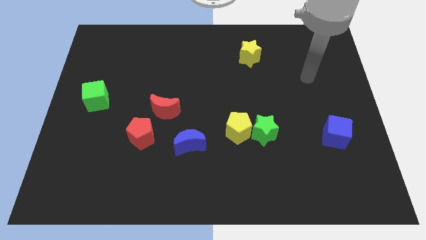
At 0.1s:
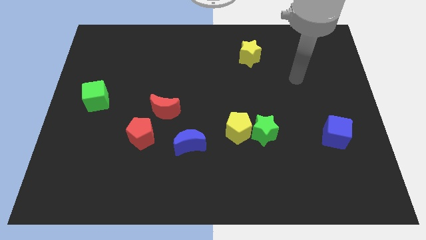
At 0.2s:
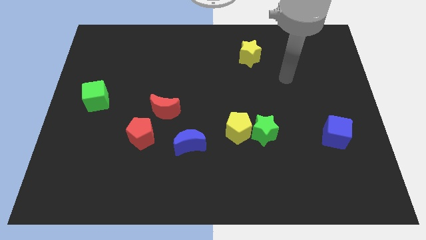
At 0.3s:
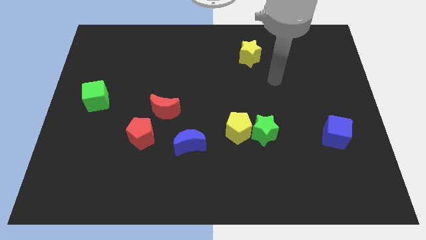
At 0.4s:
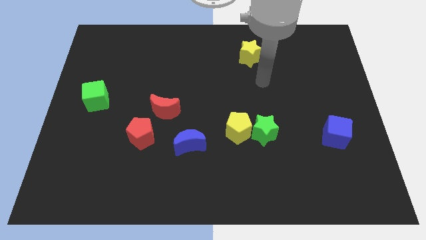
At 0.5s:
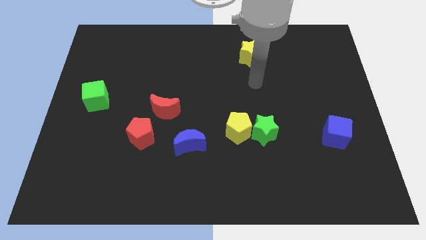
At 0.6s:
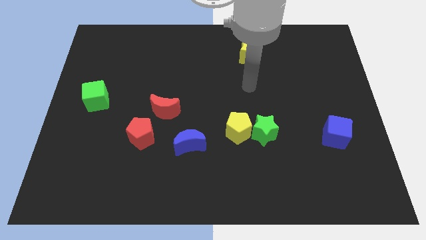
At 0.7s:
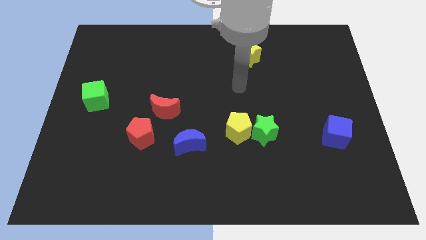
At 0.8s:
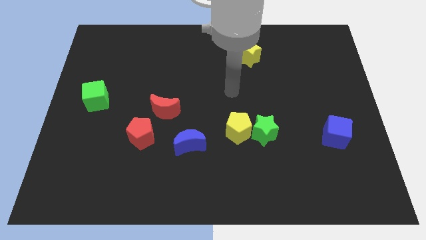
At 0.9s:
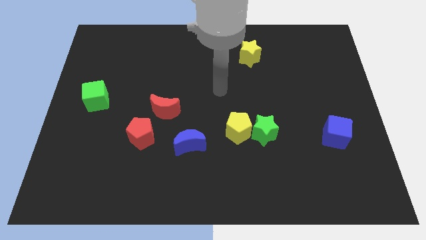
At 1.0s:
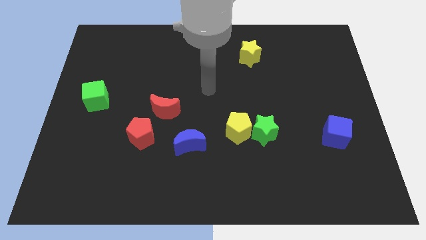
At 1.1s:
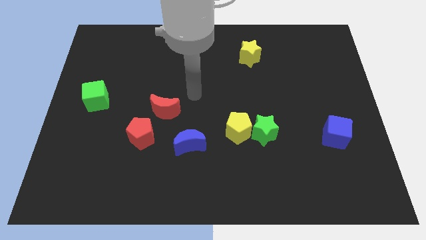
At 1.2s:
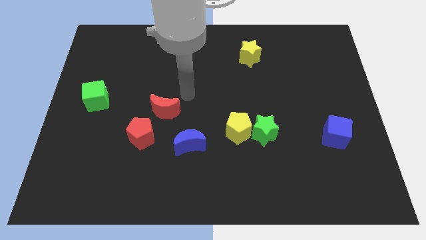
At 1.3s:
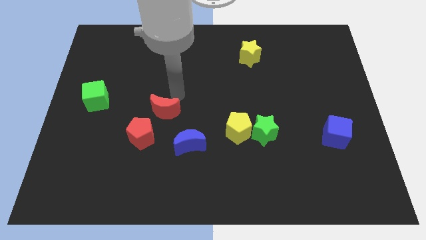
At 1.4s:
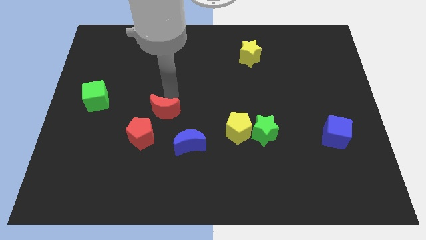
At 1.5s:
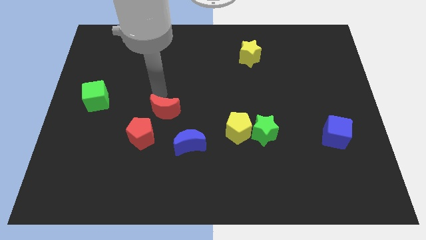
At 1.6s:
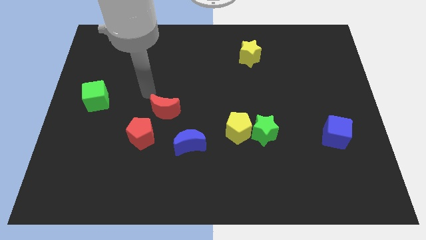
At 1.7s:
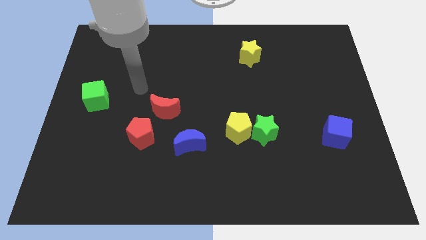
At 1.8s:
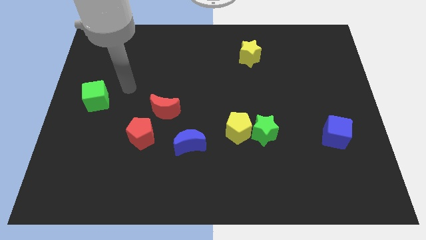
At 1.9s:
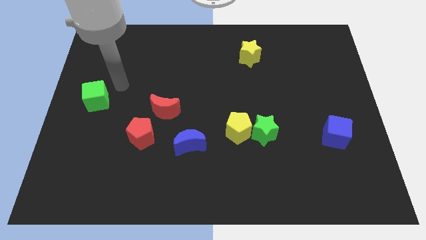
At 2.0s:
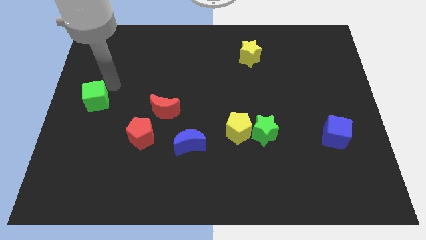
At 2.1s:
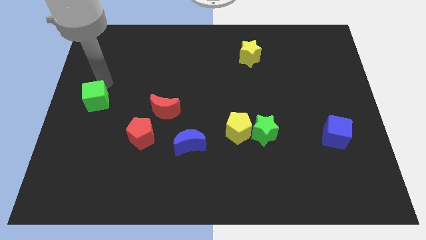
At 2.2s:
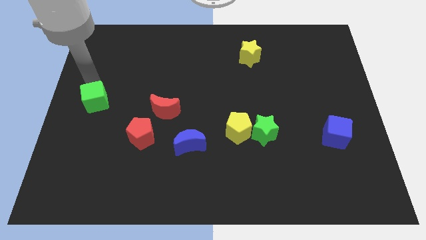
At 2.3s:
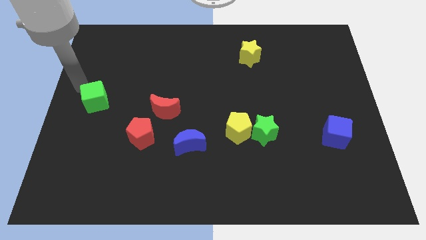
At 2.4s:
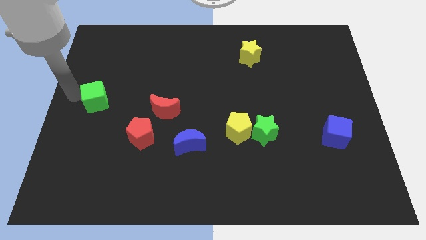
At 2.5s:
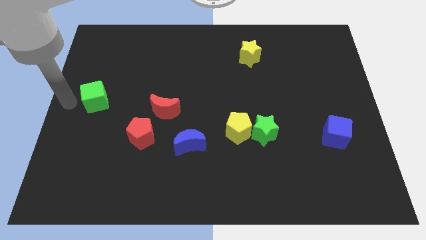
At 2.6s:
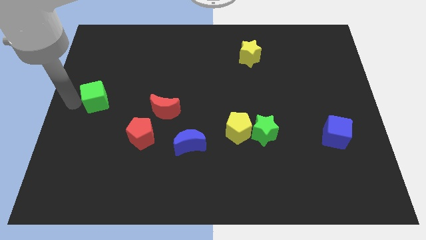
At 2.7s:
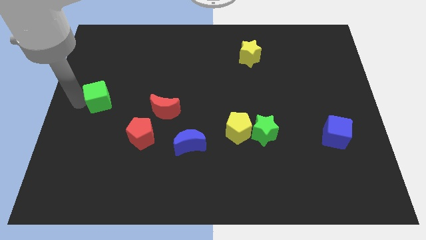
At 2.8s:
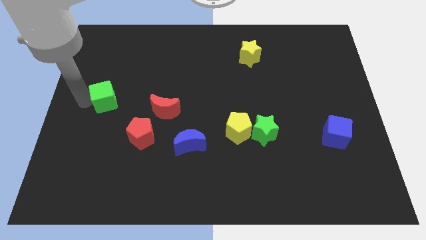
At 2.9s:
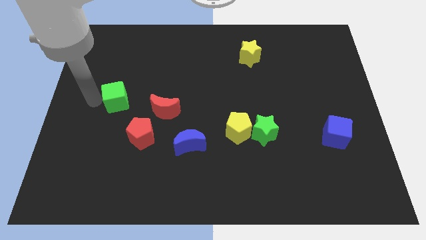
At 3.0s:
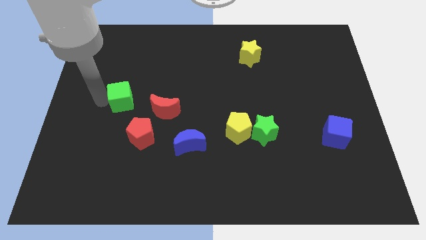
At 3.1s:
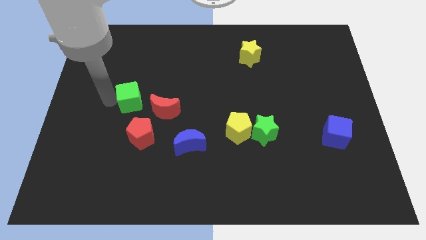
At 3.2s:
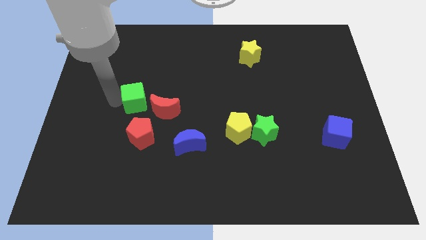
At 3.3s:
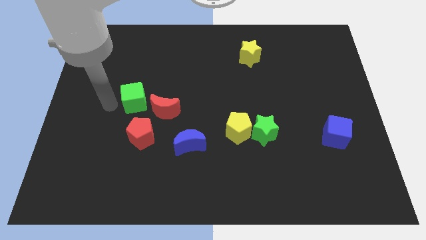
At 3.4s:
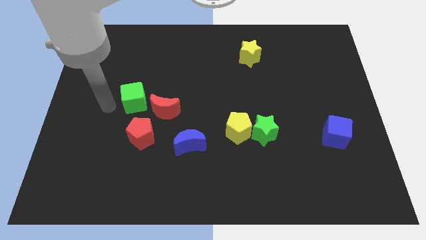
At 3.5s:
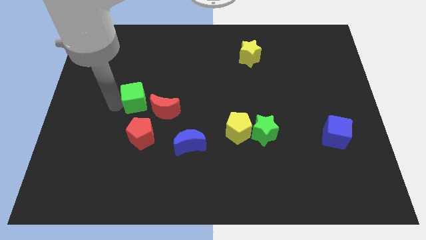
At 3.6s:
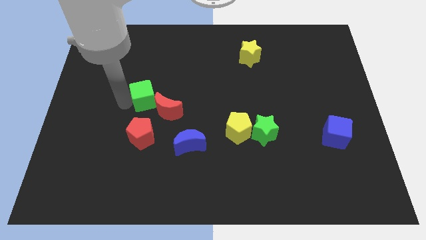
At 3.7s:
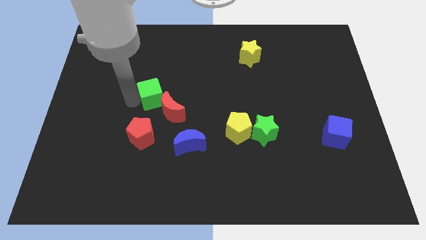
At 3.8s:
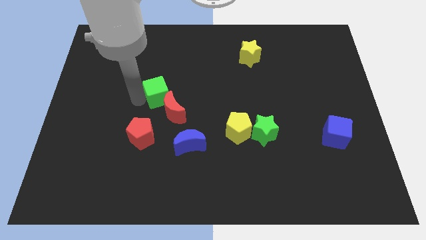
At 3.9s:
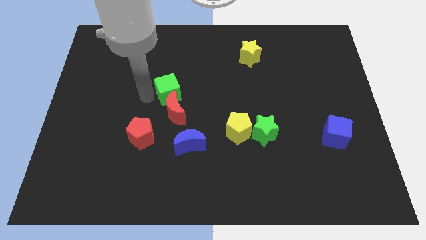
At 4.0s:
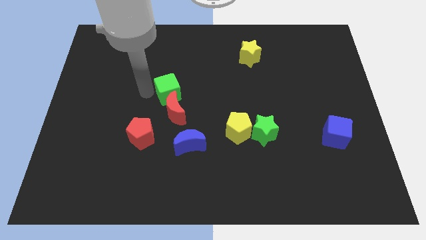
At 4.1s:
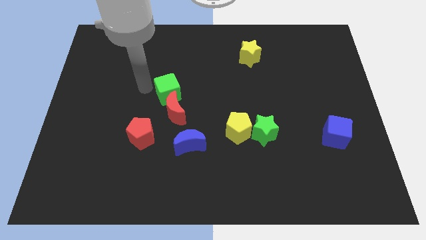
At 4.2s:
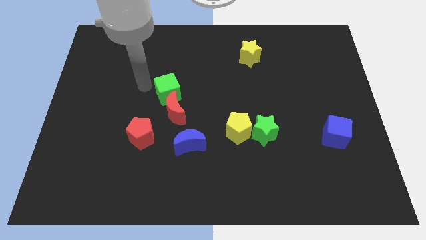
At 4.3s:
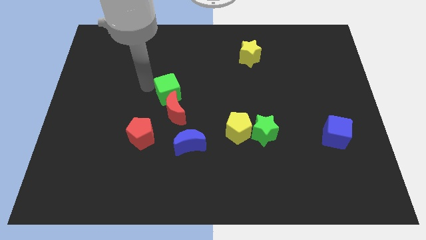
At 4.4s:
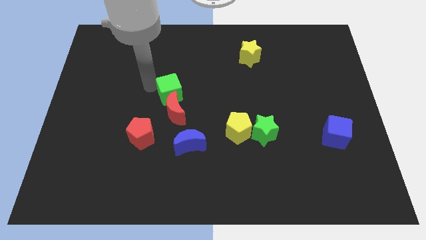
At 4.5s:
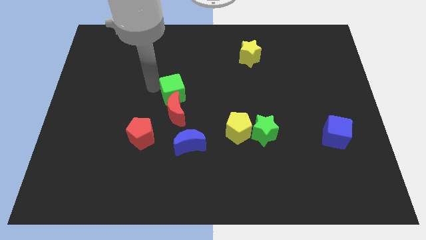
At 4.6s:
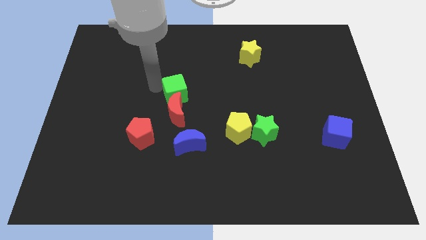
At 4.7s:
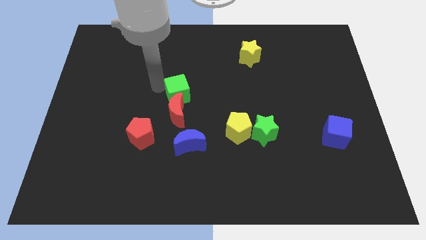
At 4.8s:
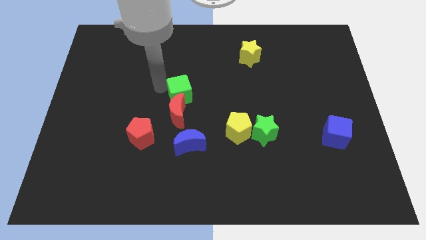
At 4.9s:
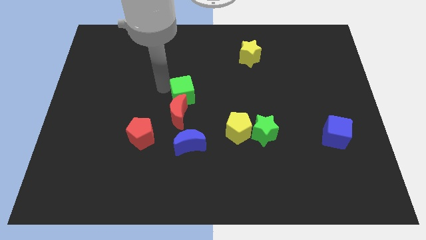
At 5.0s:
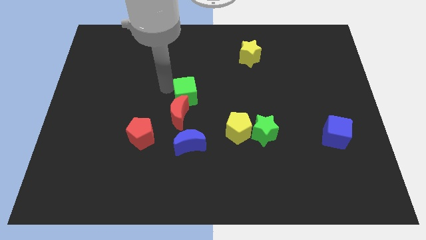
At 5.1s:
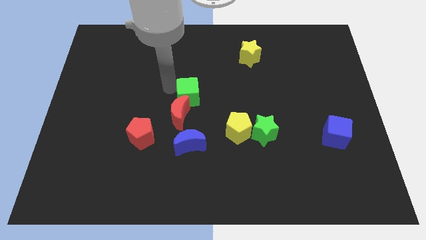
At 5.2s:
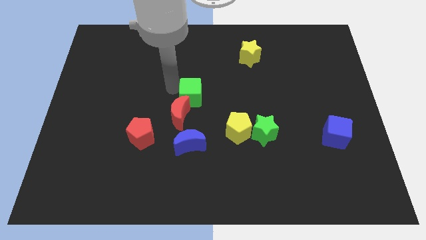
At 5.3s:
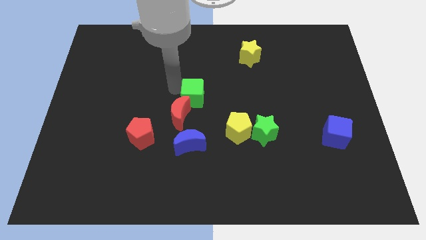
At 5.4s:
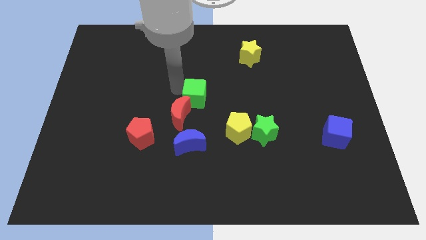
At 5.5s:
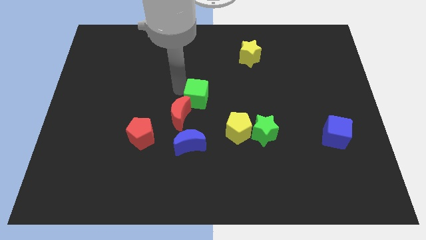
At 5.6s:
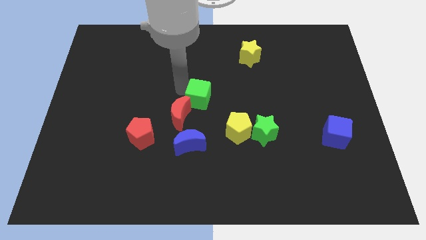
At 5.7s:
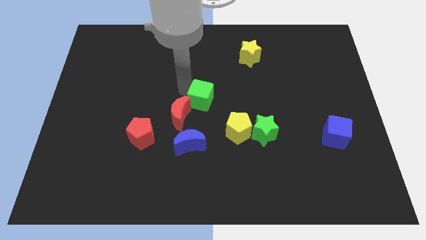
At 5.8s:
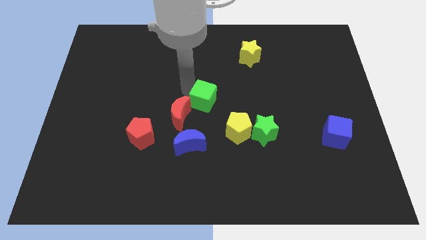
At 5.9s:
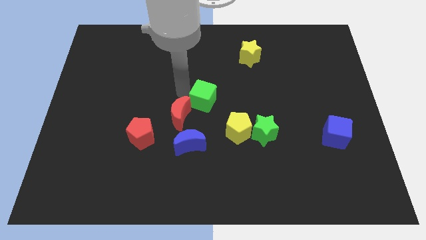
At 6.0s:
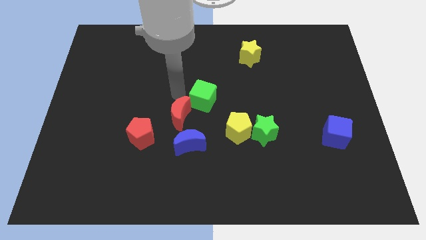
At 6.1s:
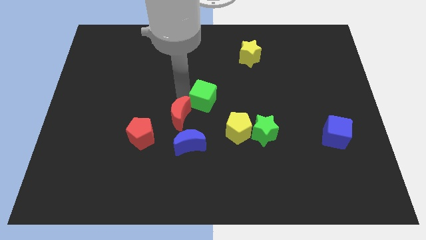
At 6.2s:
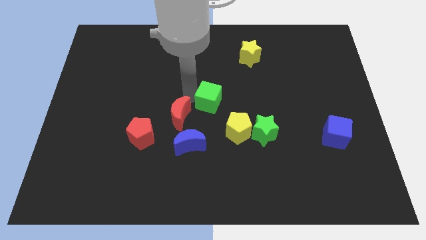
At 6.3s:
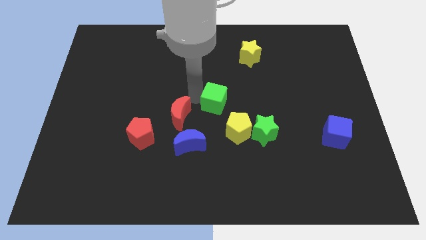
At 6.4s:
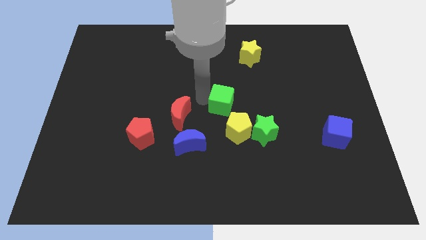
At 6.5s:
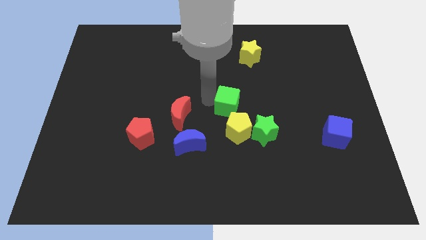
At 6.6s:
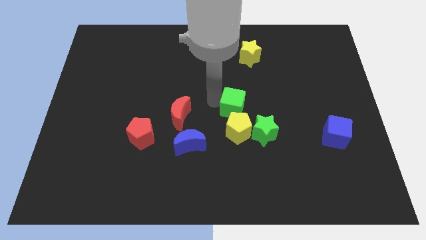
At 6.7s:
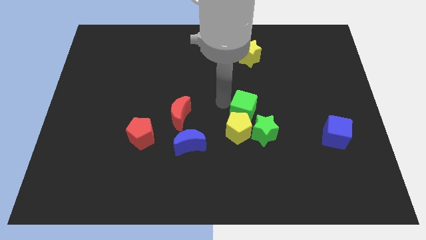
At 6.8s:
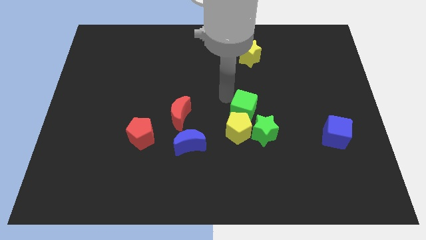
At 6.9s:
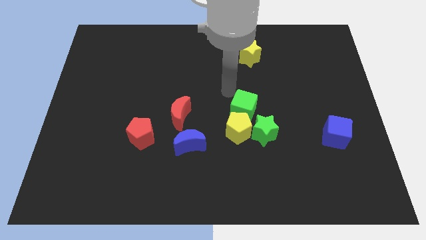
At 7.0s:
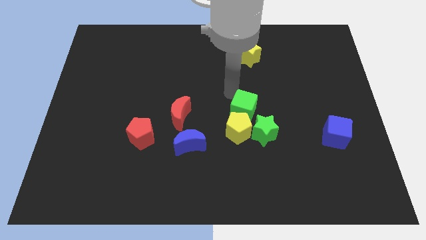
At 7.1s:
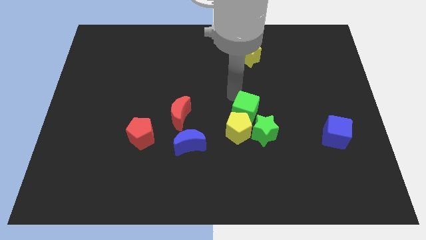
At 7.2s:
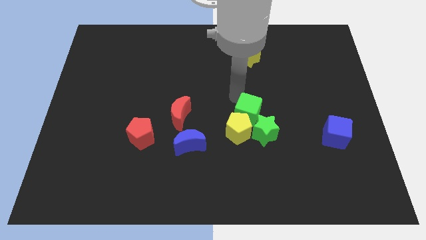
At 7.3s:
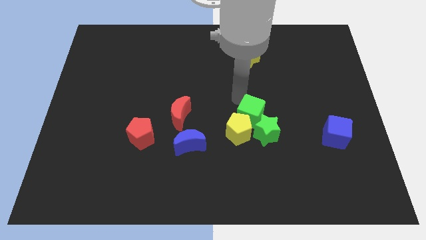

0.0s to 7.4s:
slide the green cube towards the green star
